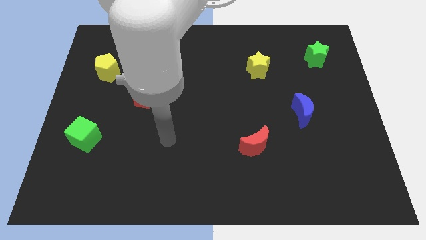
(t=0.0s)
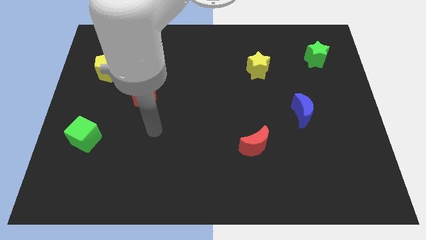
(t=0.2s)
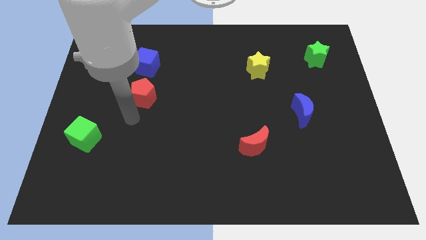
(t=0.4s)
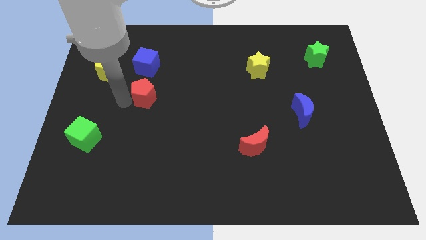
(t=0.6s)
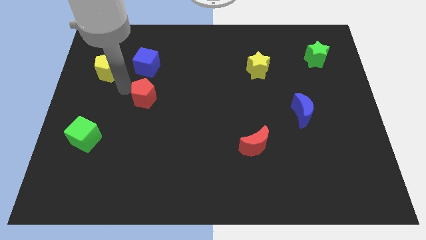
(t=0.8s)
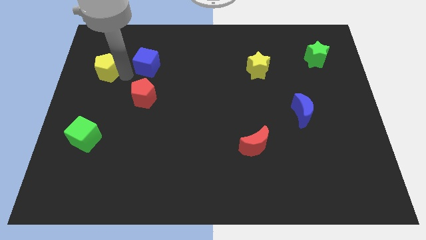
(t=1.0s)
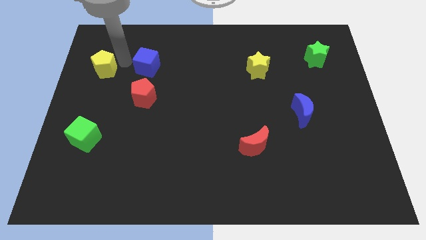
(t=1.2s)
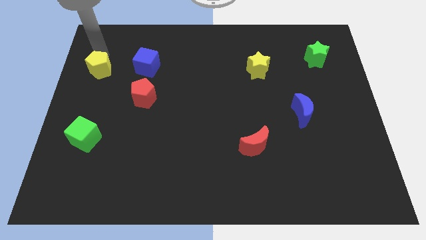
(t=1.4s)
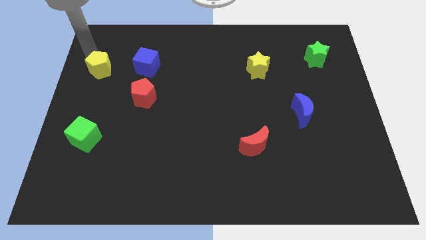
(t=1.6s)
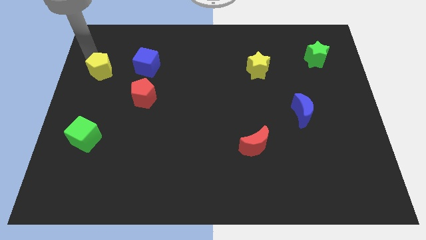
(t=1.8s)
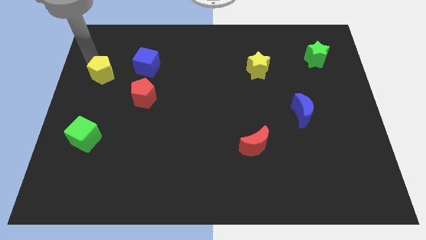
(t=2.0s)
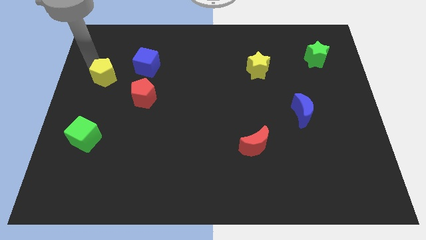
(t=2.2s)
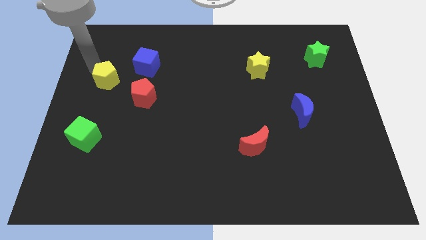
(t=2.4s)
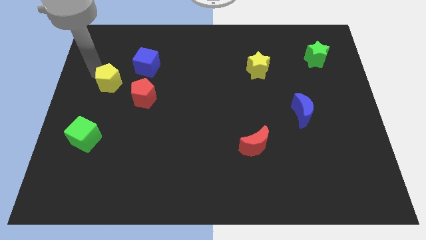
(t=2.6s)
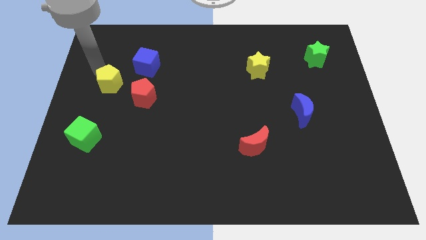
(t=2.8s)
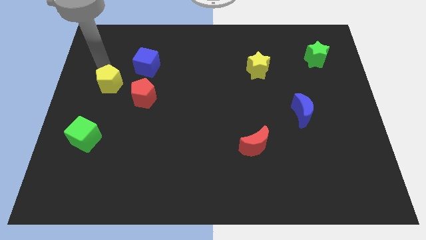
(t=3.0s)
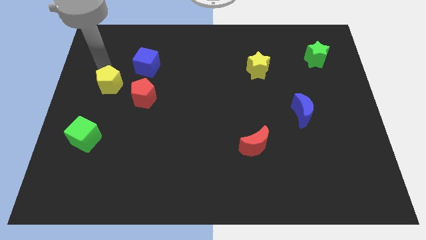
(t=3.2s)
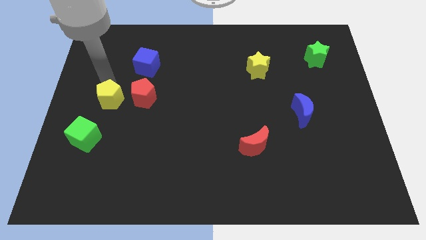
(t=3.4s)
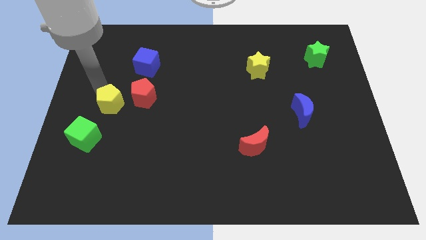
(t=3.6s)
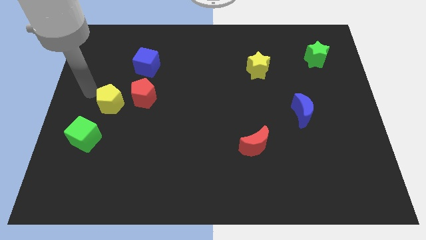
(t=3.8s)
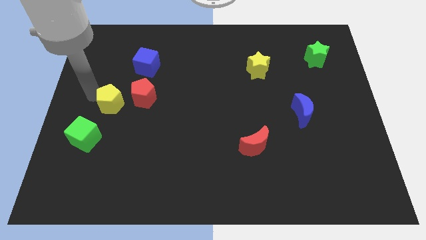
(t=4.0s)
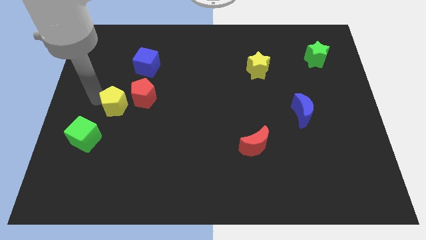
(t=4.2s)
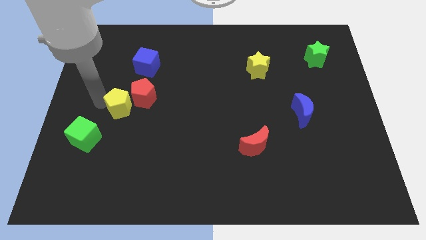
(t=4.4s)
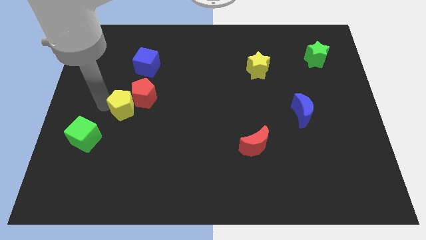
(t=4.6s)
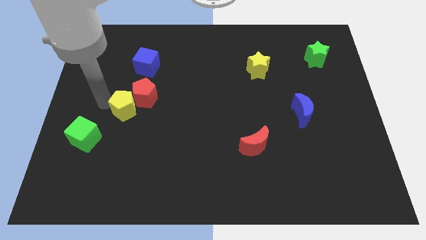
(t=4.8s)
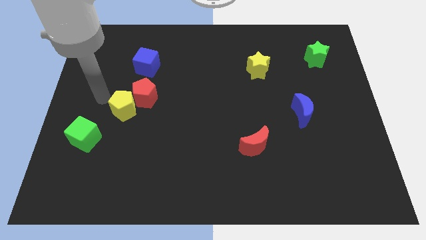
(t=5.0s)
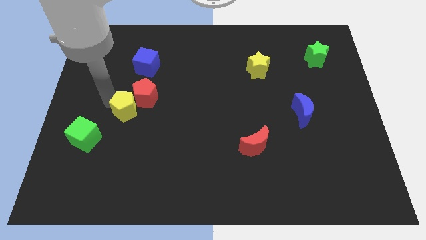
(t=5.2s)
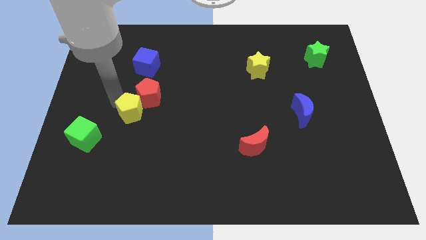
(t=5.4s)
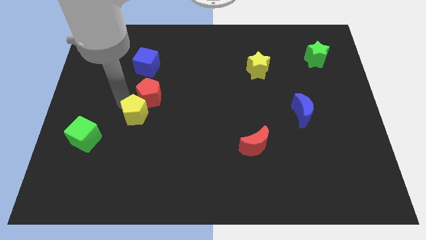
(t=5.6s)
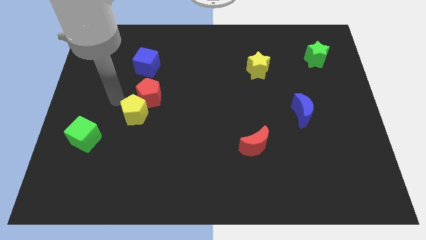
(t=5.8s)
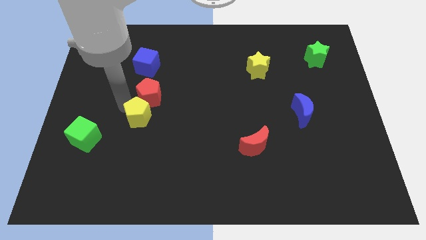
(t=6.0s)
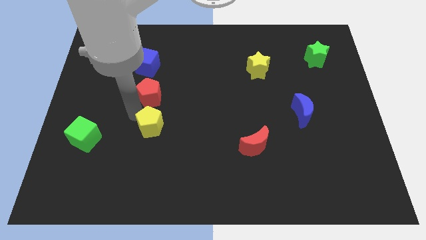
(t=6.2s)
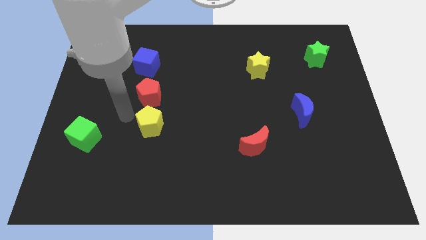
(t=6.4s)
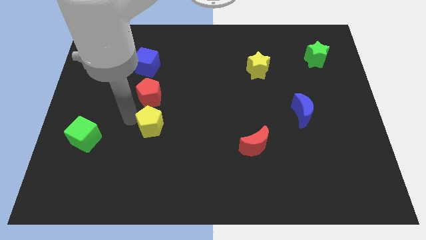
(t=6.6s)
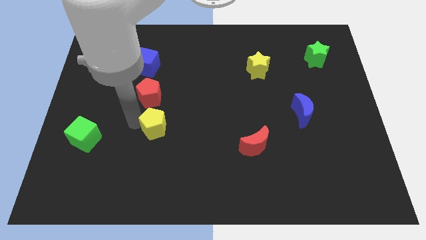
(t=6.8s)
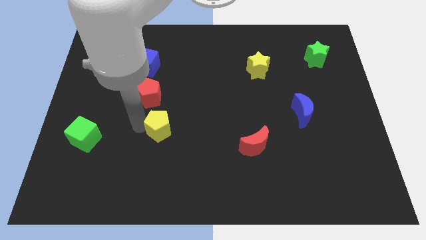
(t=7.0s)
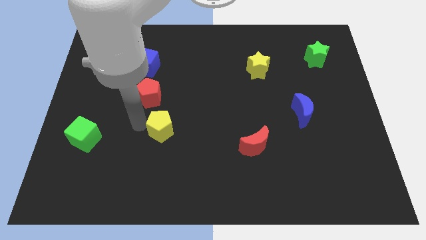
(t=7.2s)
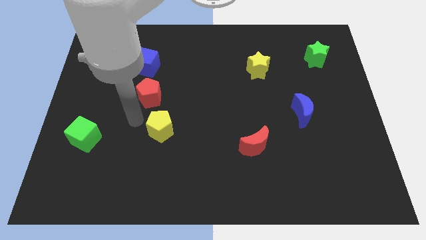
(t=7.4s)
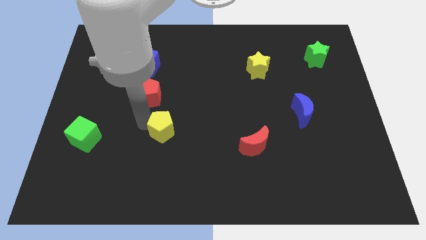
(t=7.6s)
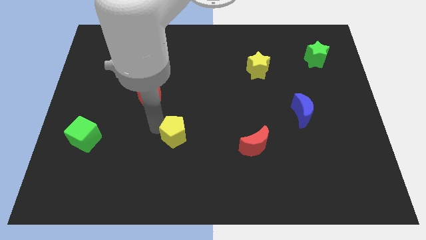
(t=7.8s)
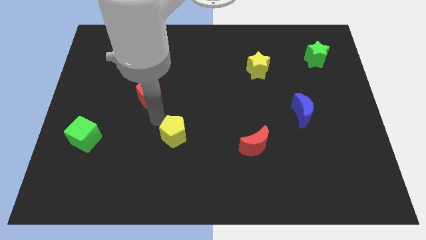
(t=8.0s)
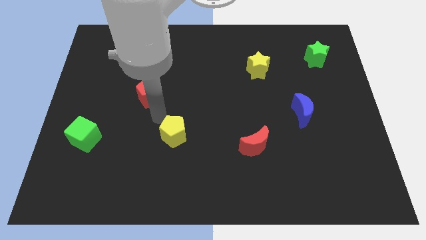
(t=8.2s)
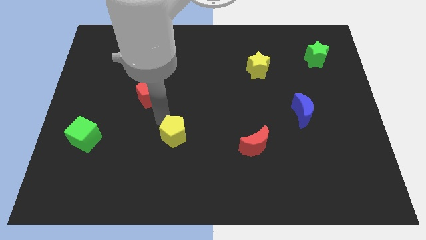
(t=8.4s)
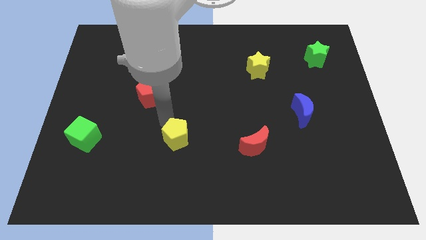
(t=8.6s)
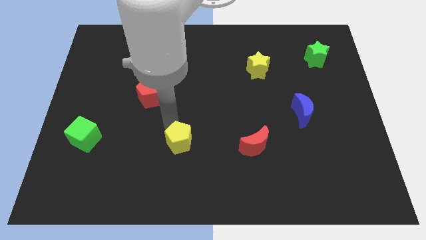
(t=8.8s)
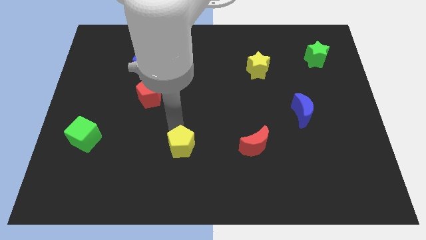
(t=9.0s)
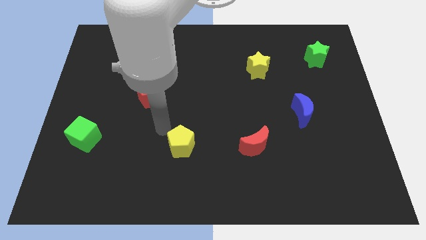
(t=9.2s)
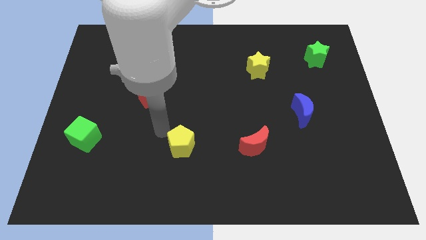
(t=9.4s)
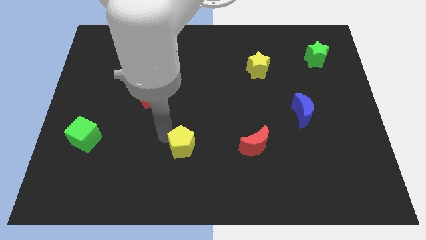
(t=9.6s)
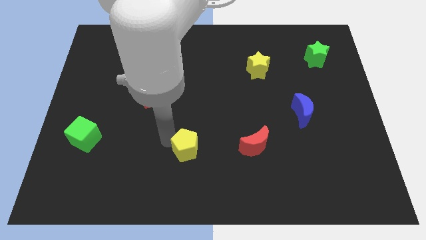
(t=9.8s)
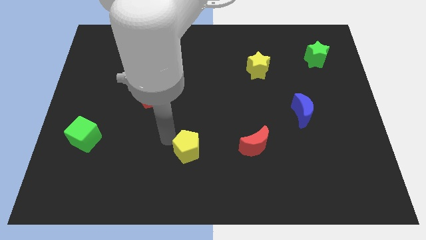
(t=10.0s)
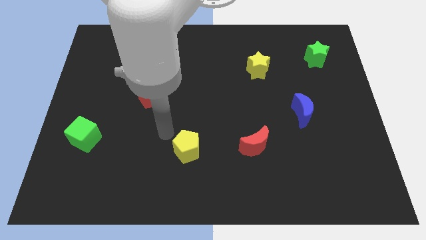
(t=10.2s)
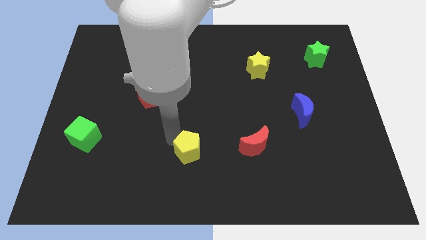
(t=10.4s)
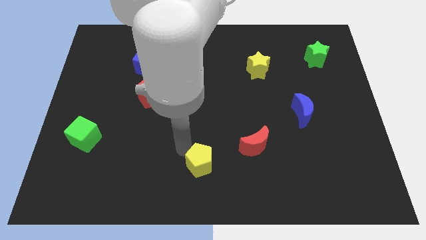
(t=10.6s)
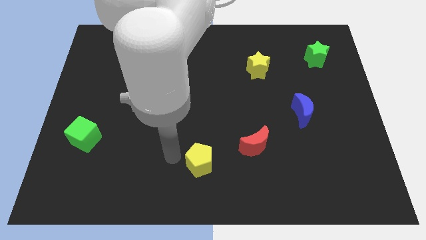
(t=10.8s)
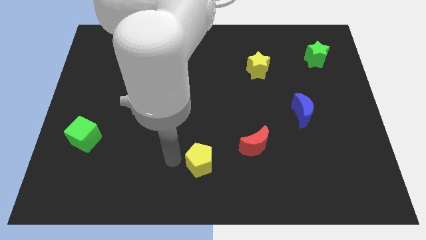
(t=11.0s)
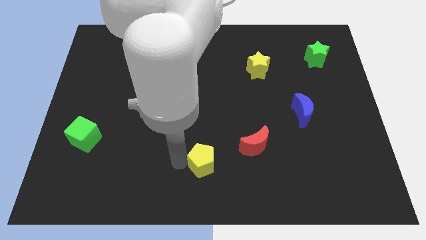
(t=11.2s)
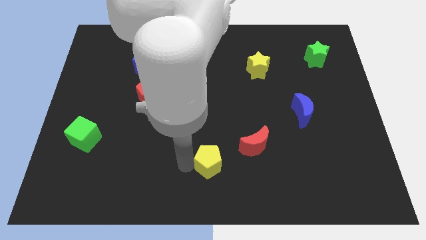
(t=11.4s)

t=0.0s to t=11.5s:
push the yellow pentagon to the bottom left side of the red moon
